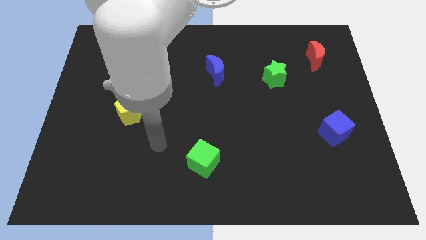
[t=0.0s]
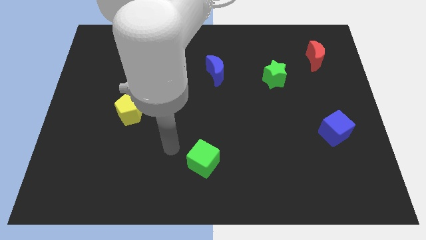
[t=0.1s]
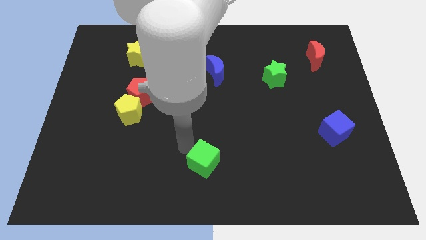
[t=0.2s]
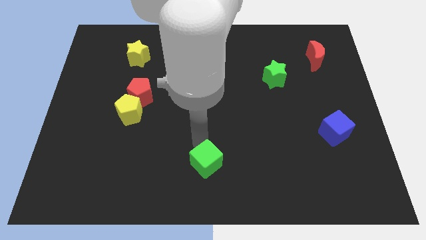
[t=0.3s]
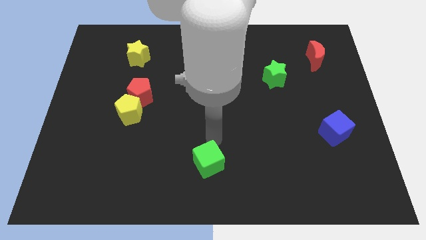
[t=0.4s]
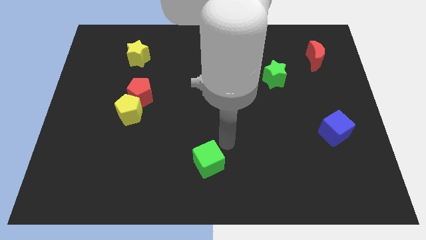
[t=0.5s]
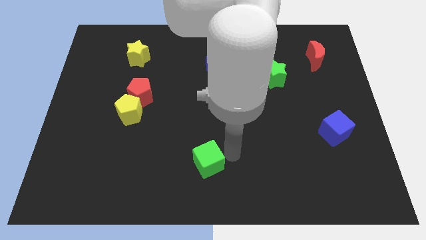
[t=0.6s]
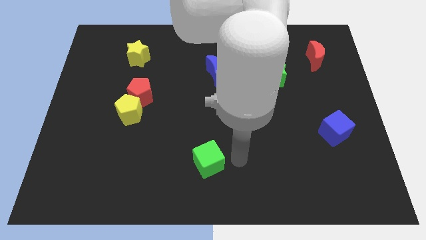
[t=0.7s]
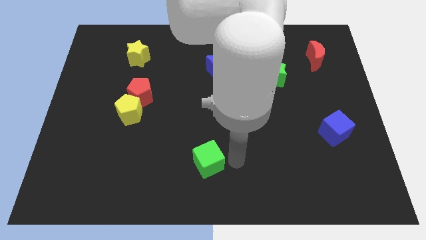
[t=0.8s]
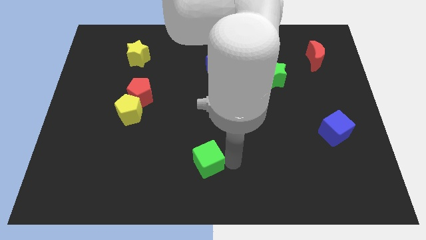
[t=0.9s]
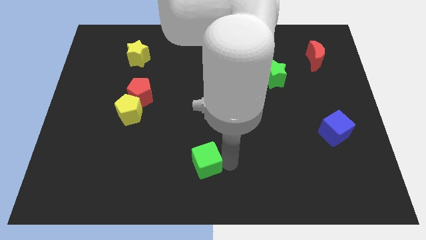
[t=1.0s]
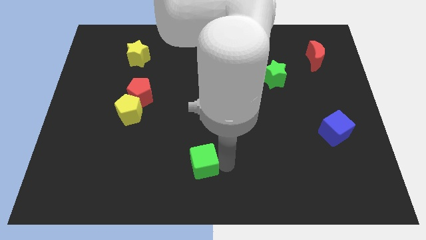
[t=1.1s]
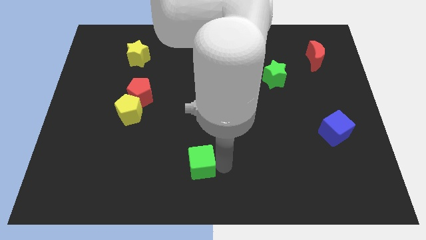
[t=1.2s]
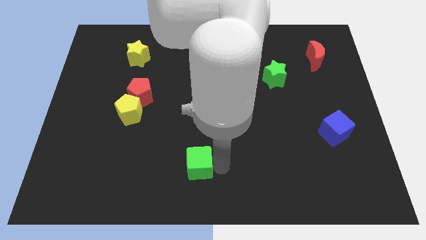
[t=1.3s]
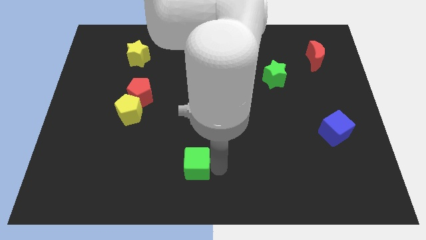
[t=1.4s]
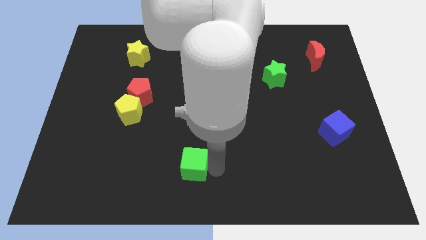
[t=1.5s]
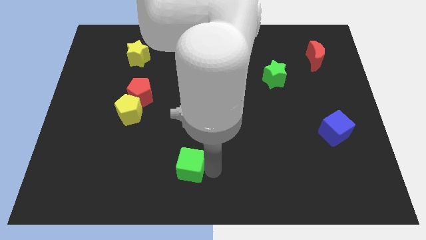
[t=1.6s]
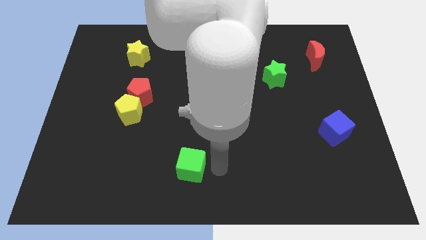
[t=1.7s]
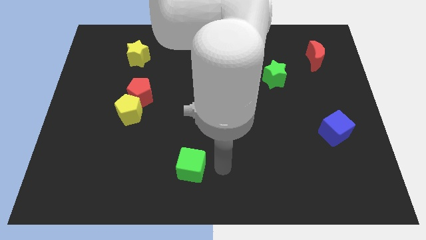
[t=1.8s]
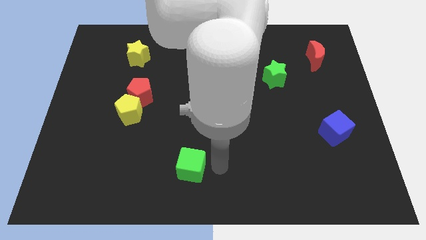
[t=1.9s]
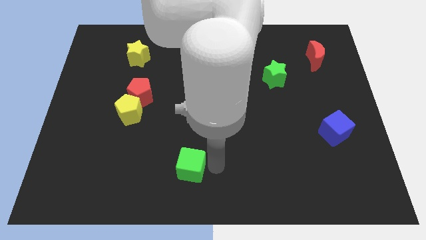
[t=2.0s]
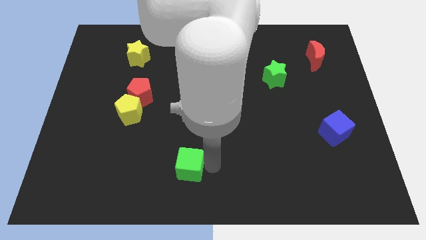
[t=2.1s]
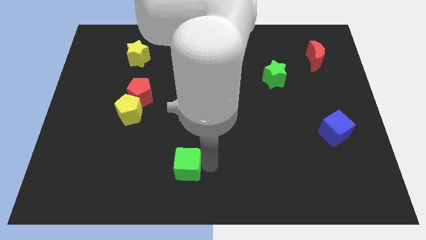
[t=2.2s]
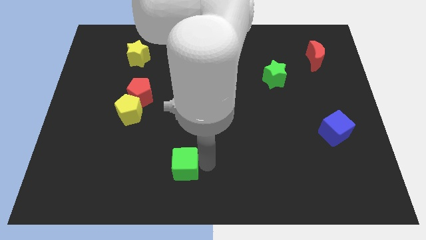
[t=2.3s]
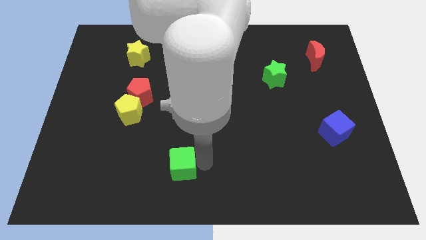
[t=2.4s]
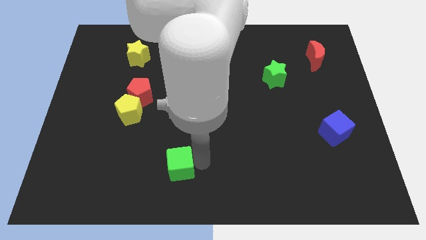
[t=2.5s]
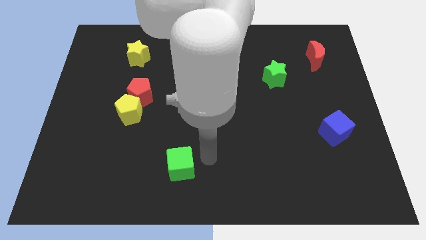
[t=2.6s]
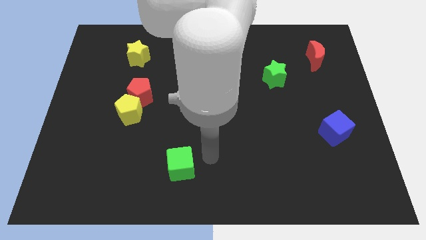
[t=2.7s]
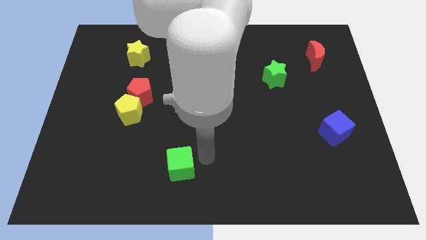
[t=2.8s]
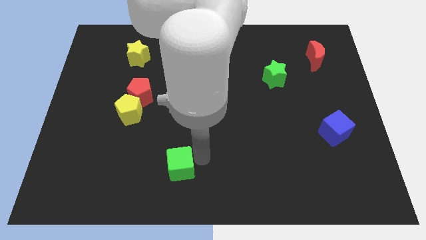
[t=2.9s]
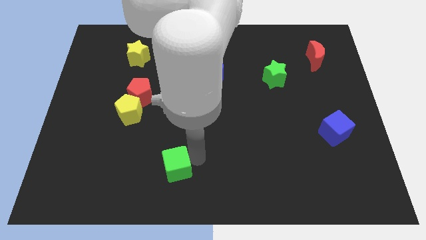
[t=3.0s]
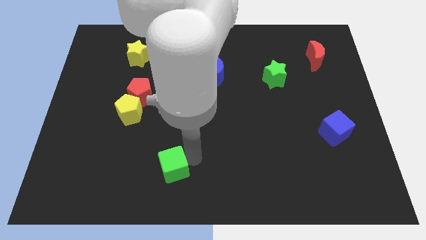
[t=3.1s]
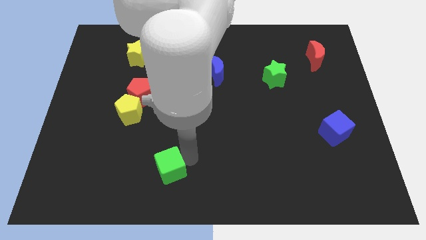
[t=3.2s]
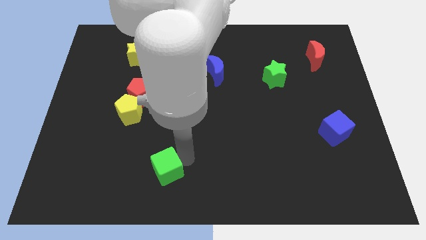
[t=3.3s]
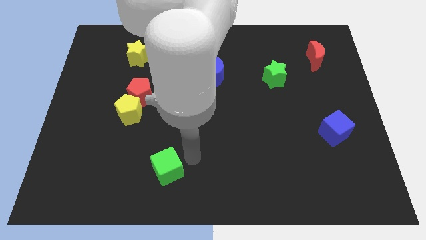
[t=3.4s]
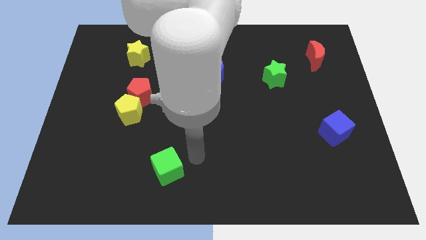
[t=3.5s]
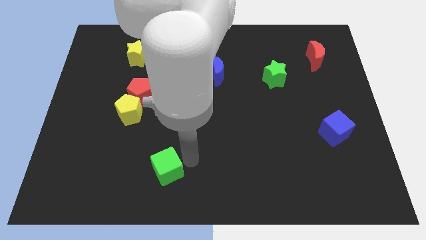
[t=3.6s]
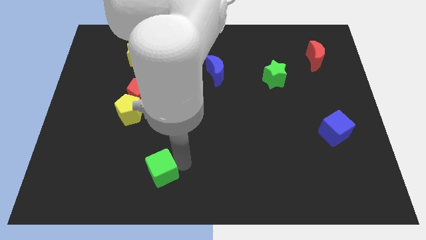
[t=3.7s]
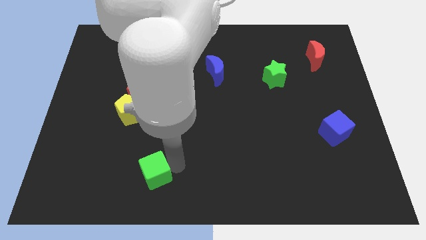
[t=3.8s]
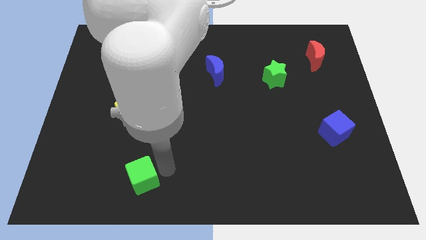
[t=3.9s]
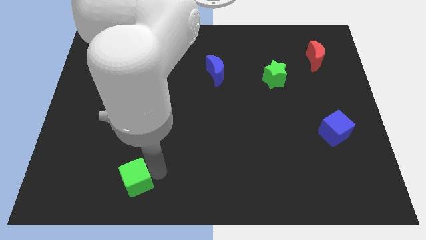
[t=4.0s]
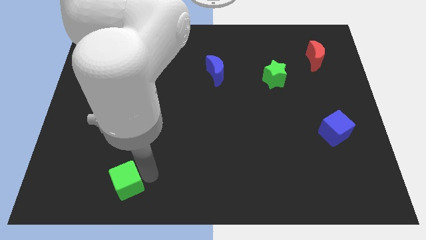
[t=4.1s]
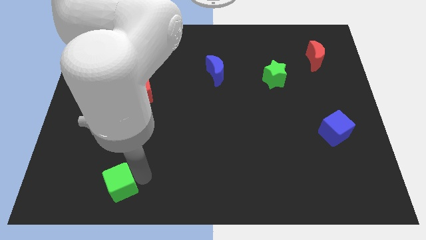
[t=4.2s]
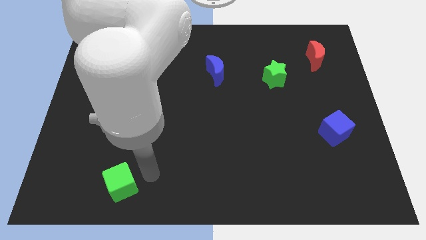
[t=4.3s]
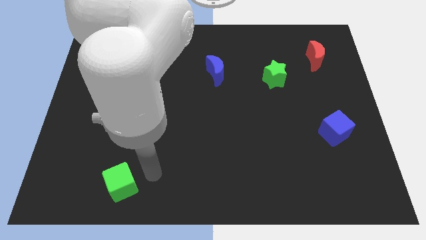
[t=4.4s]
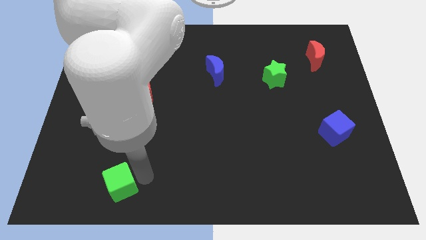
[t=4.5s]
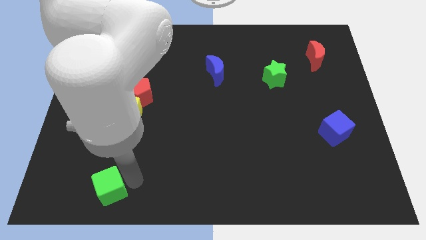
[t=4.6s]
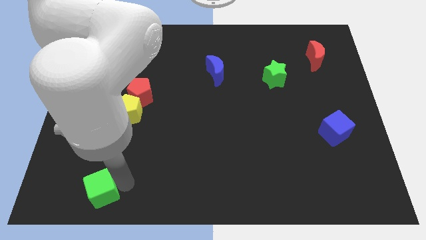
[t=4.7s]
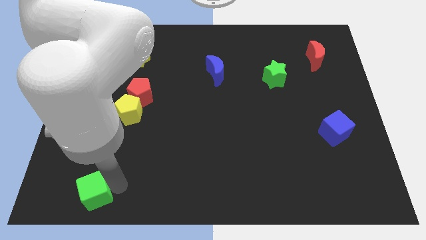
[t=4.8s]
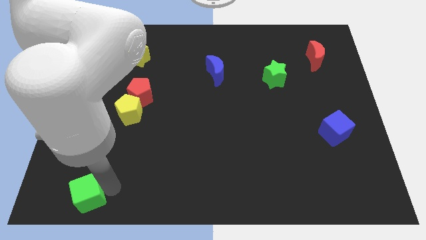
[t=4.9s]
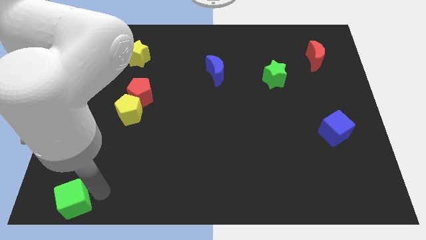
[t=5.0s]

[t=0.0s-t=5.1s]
move the green cube to the bottom left corner
